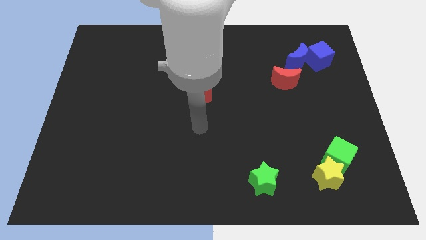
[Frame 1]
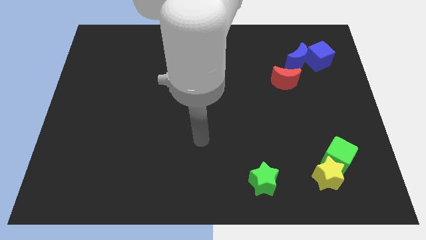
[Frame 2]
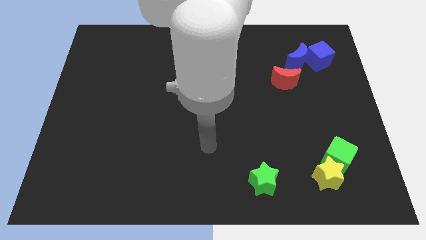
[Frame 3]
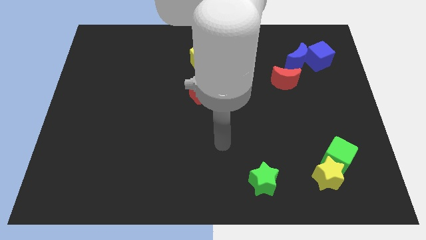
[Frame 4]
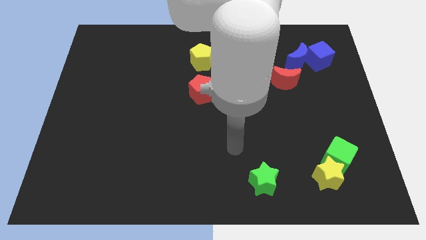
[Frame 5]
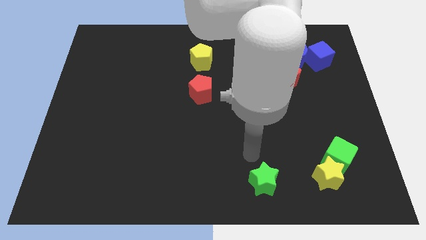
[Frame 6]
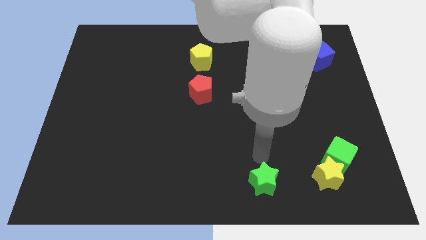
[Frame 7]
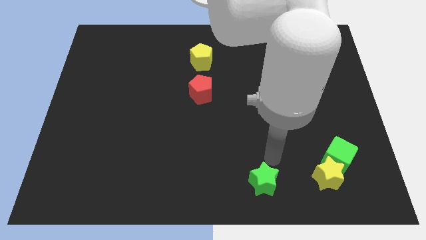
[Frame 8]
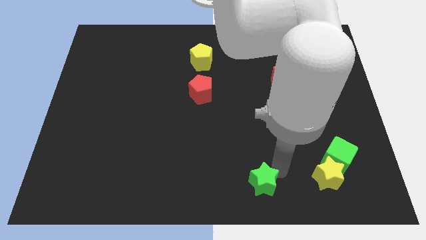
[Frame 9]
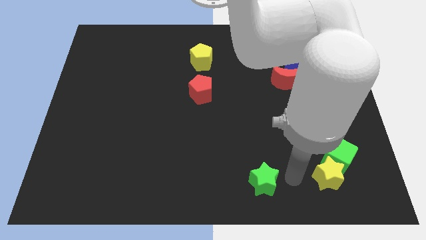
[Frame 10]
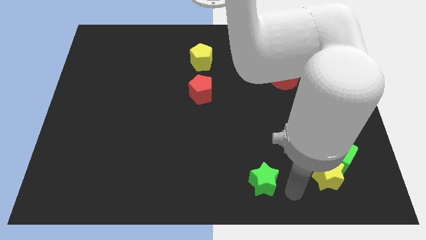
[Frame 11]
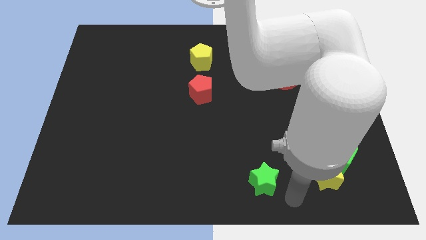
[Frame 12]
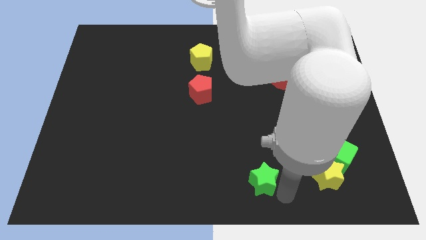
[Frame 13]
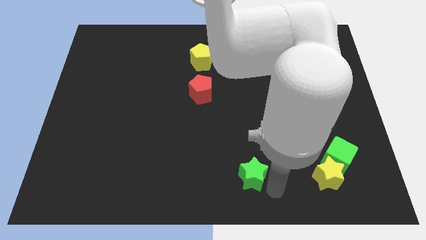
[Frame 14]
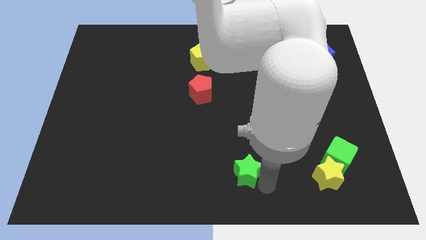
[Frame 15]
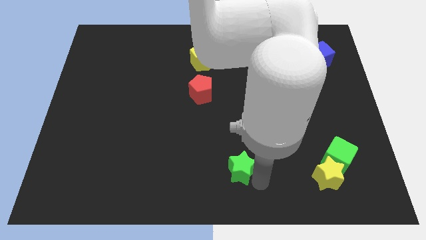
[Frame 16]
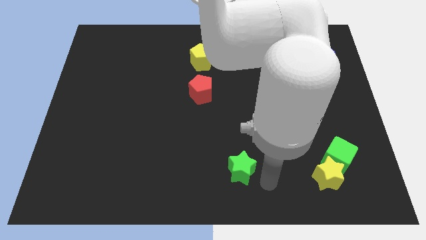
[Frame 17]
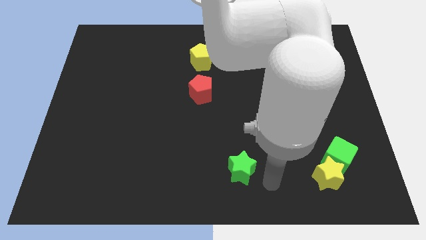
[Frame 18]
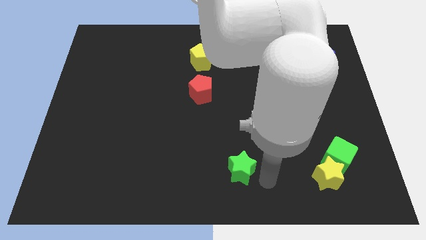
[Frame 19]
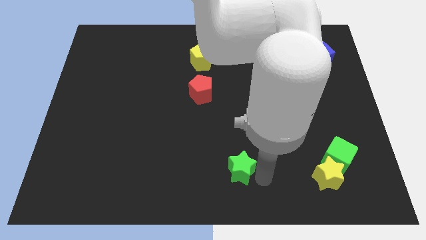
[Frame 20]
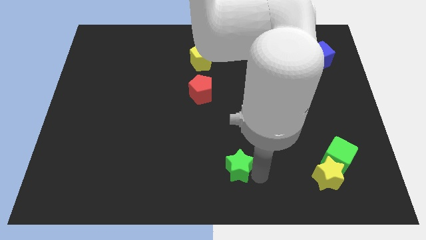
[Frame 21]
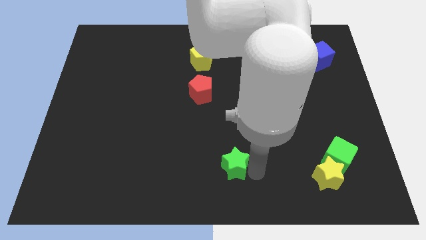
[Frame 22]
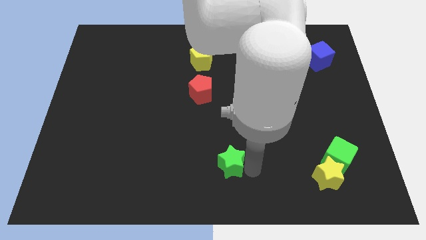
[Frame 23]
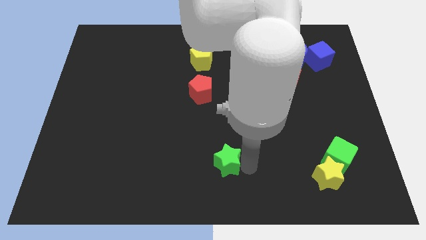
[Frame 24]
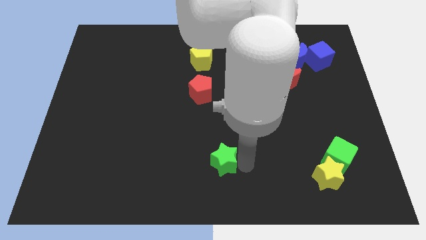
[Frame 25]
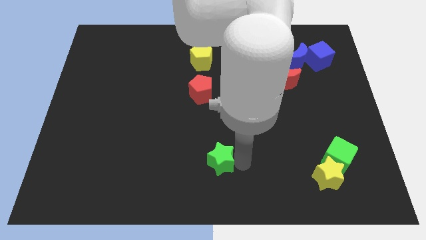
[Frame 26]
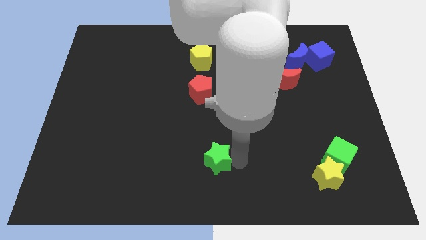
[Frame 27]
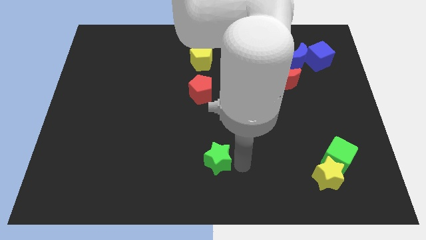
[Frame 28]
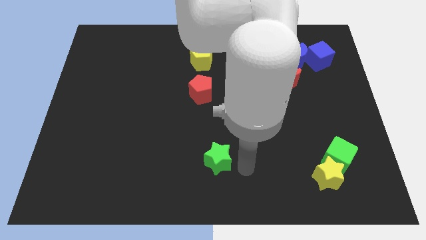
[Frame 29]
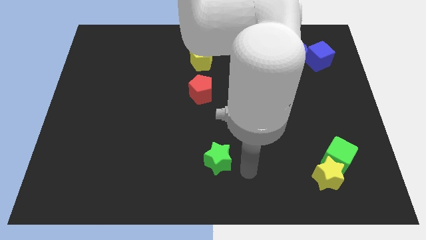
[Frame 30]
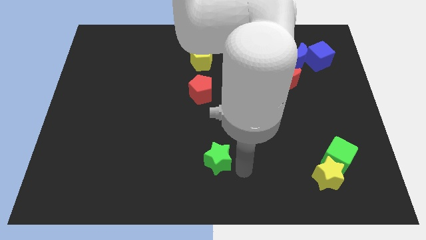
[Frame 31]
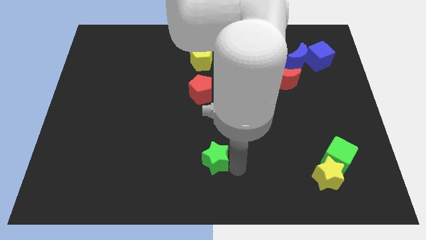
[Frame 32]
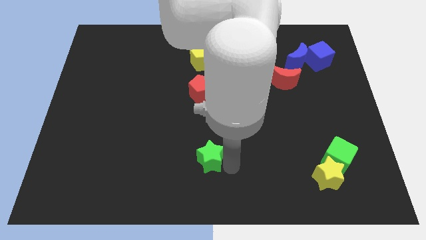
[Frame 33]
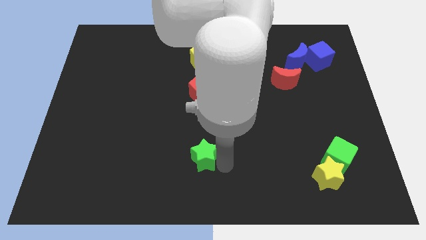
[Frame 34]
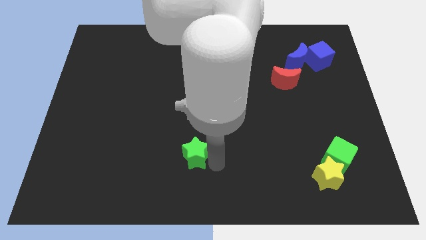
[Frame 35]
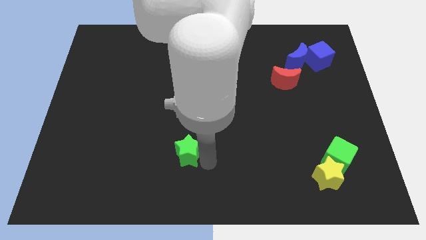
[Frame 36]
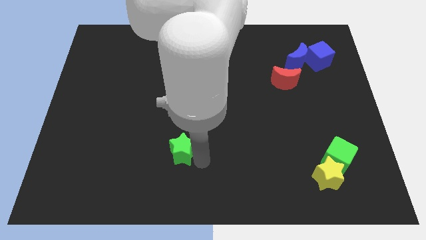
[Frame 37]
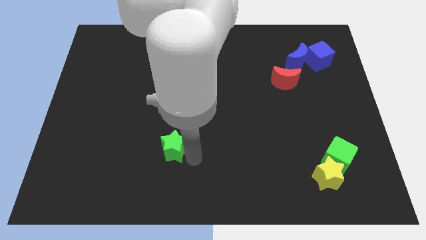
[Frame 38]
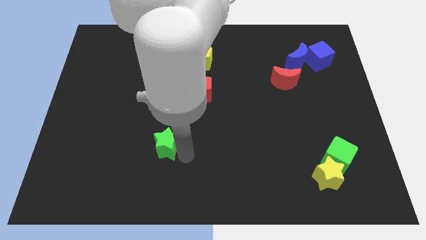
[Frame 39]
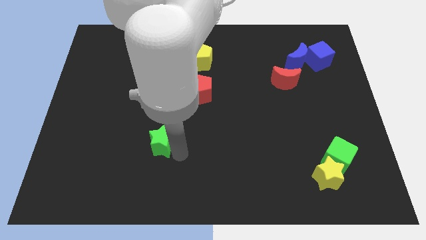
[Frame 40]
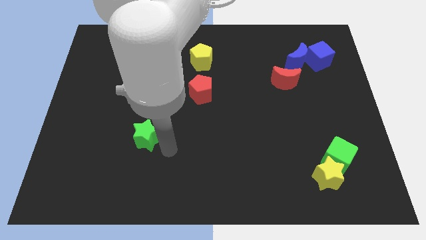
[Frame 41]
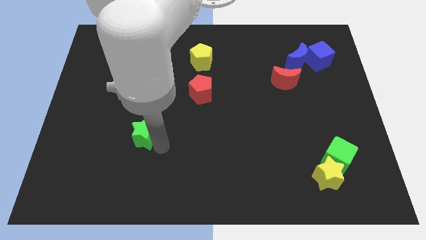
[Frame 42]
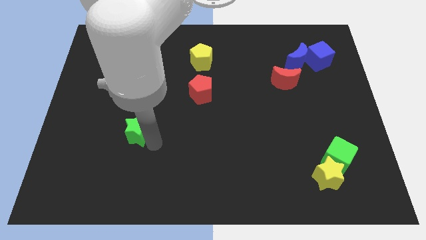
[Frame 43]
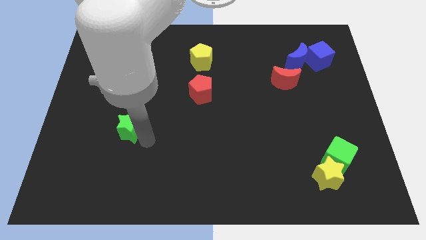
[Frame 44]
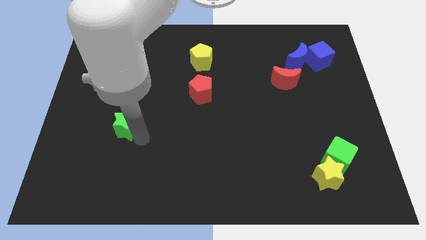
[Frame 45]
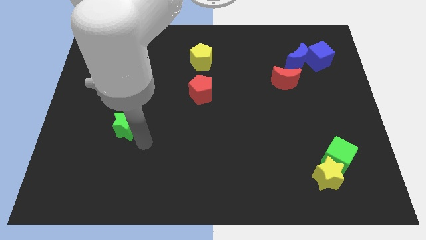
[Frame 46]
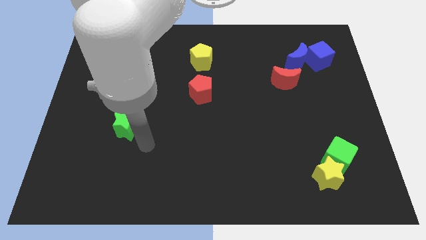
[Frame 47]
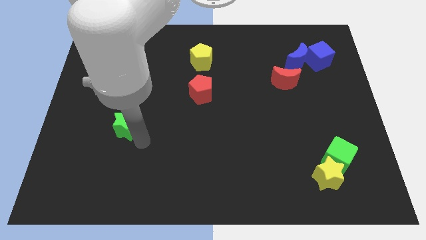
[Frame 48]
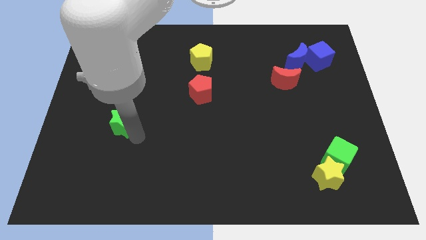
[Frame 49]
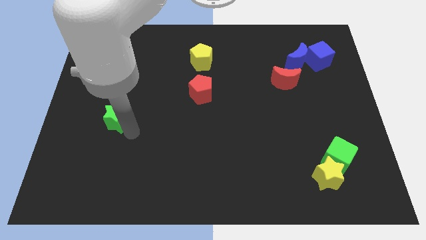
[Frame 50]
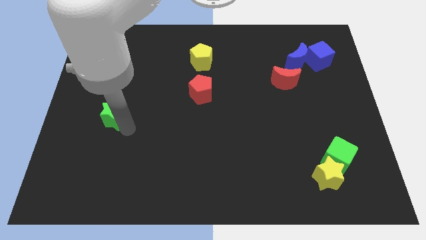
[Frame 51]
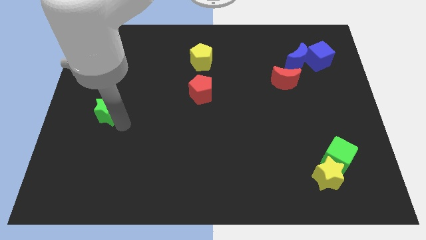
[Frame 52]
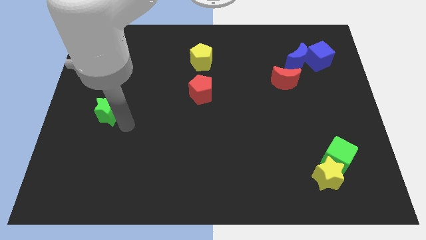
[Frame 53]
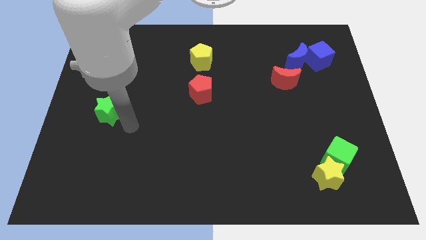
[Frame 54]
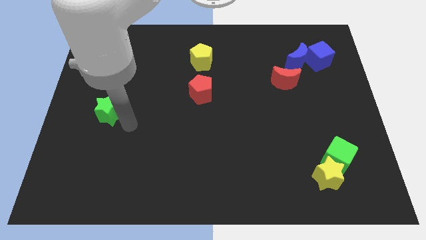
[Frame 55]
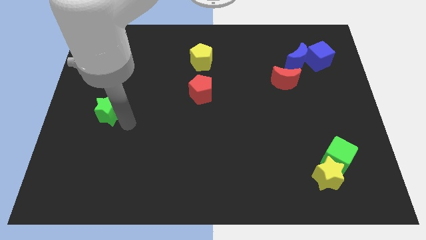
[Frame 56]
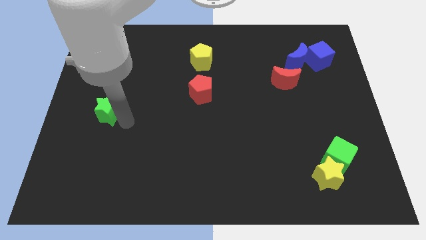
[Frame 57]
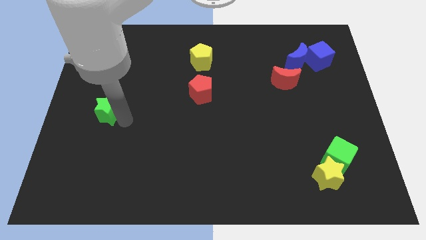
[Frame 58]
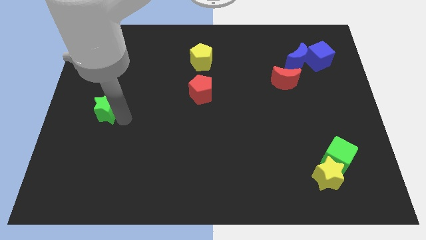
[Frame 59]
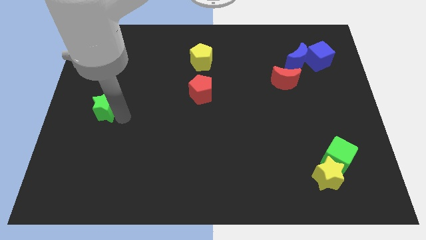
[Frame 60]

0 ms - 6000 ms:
move the green star to the center left

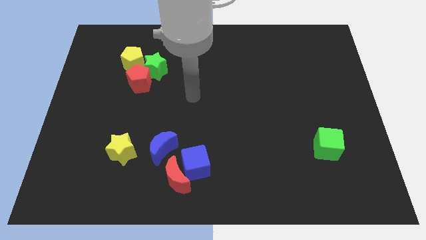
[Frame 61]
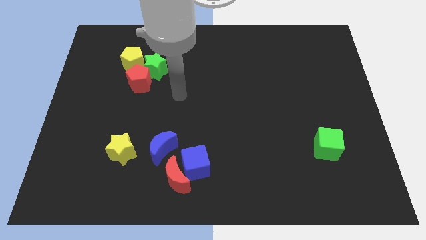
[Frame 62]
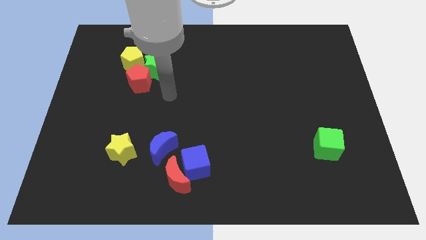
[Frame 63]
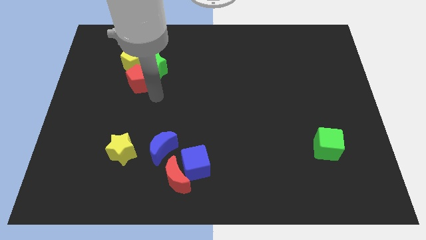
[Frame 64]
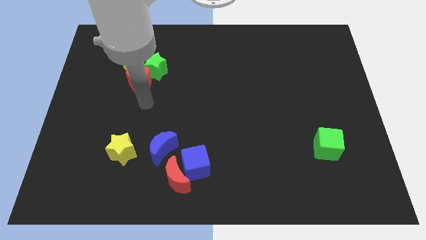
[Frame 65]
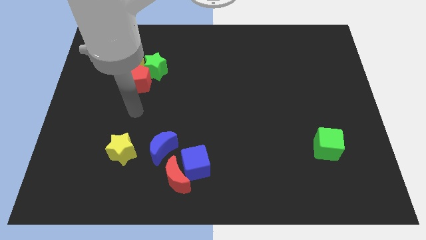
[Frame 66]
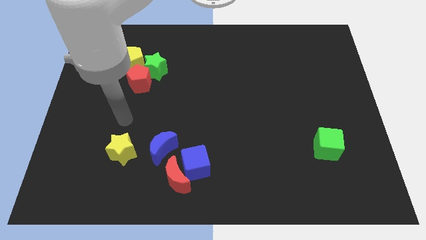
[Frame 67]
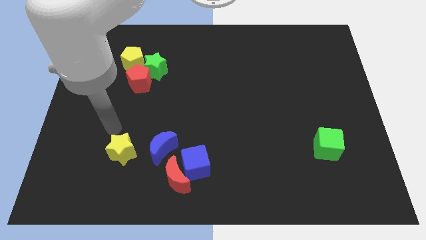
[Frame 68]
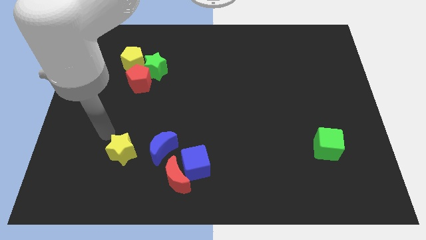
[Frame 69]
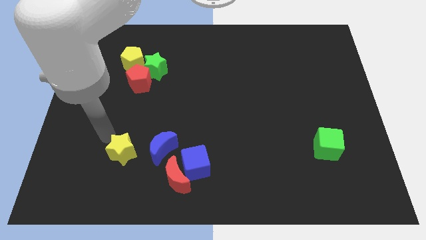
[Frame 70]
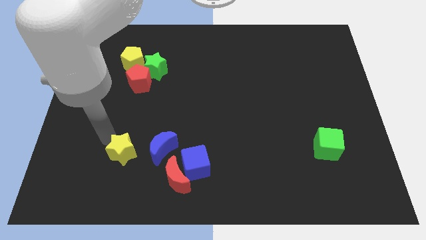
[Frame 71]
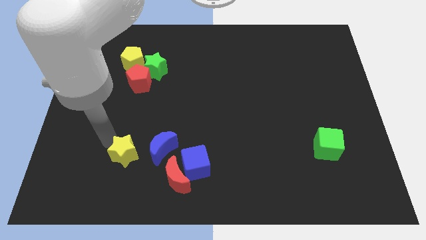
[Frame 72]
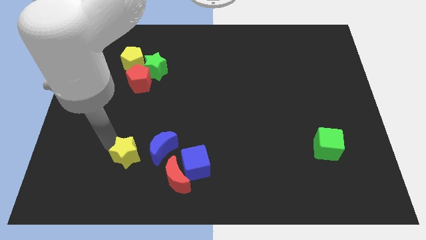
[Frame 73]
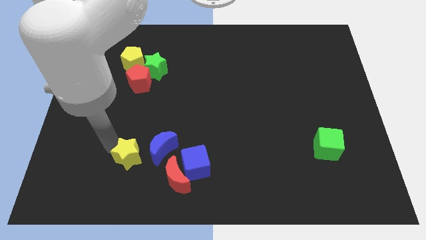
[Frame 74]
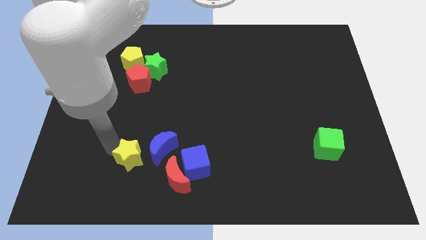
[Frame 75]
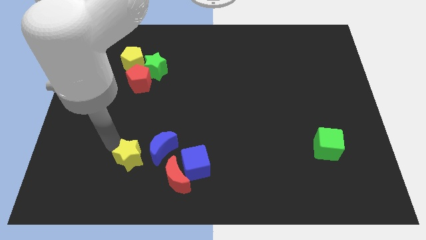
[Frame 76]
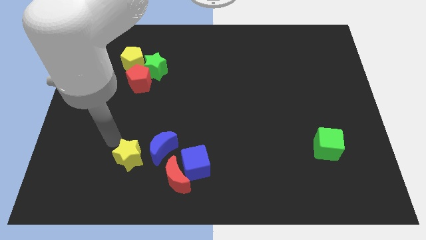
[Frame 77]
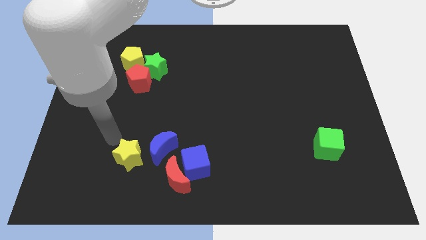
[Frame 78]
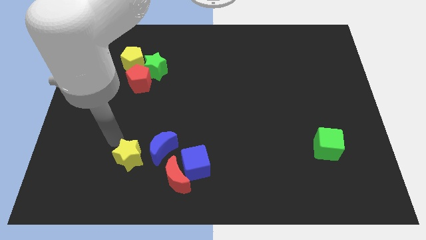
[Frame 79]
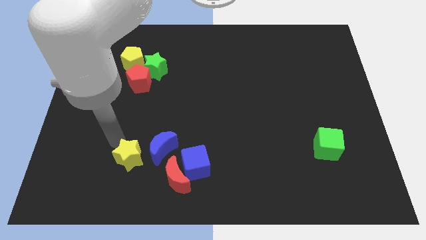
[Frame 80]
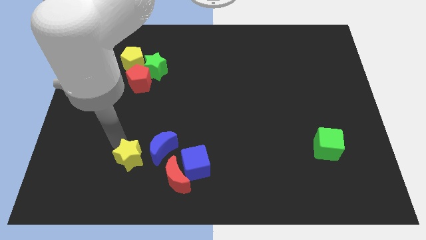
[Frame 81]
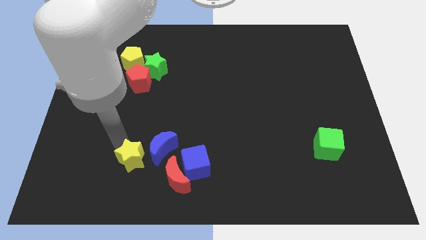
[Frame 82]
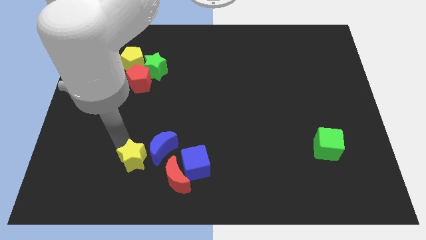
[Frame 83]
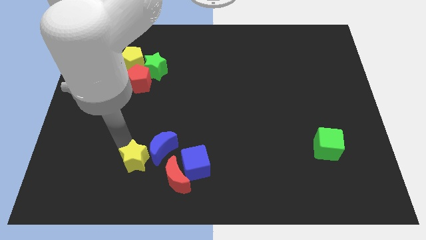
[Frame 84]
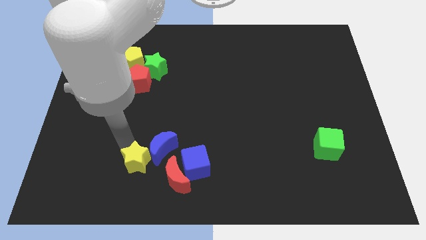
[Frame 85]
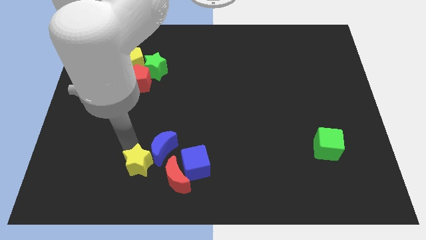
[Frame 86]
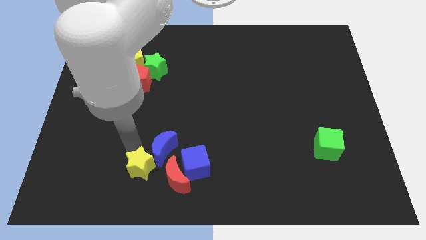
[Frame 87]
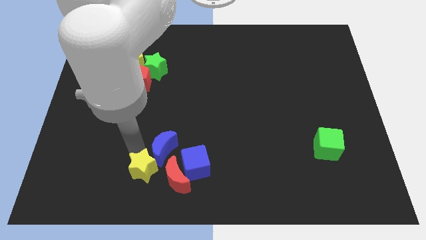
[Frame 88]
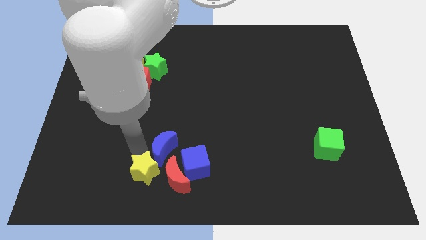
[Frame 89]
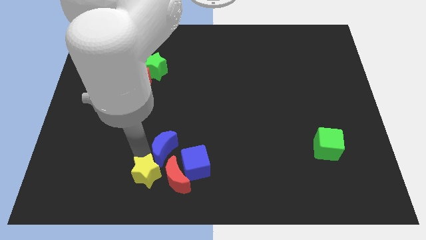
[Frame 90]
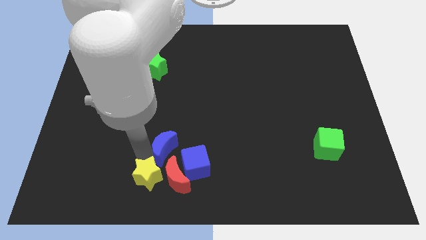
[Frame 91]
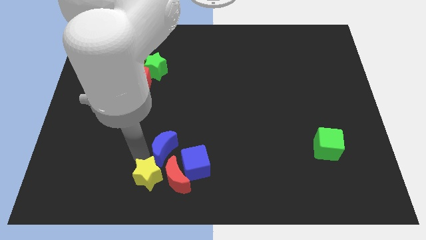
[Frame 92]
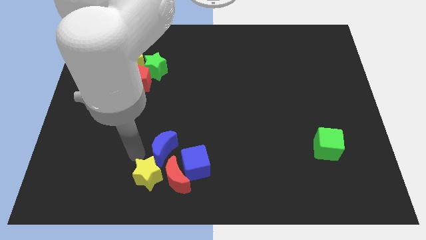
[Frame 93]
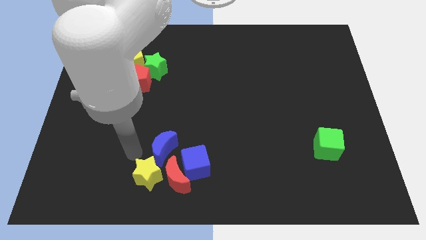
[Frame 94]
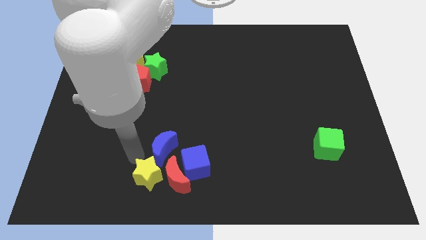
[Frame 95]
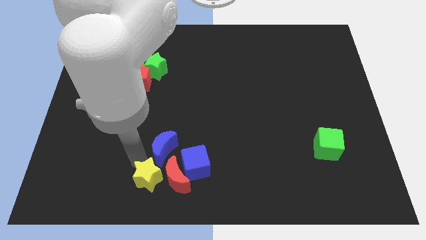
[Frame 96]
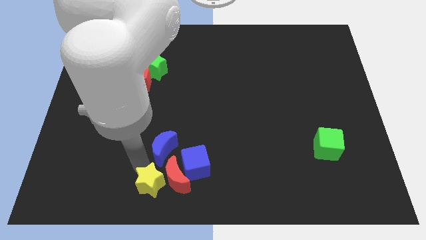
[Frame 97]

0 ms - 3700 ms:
slide the yellow star to the bottom
